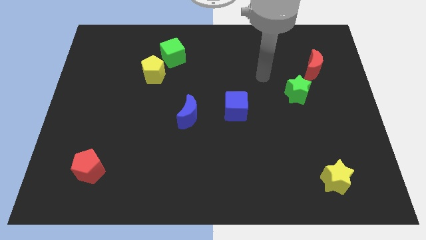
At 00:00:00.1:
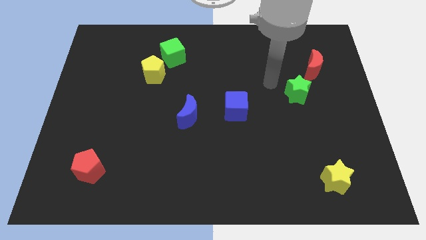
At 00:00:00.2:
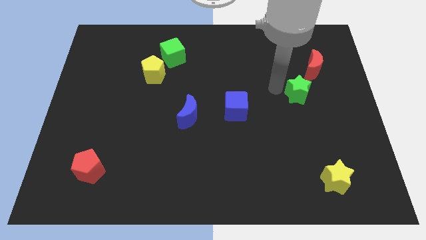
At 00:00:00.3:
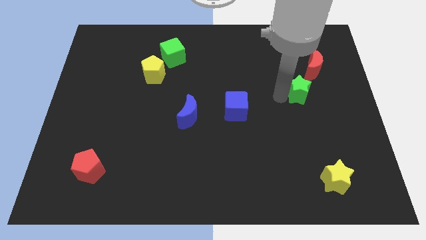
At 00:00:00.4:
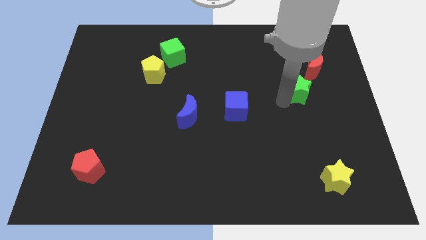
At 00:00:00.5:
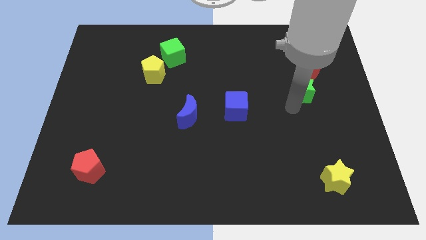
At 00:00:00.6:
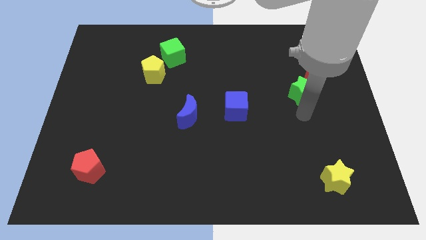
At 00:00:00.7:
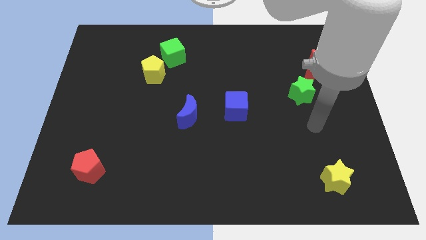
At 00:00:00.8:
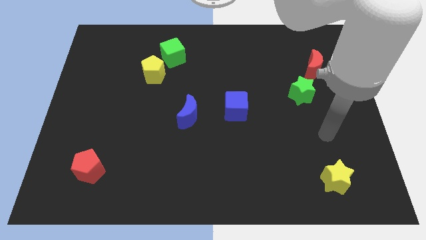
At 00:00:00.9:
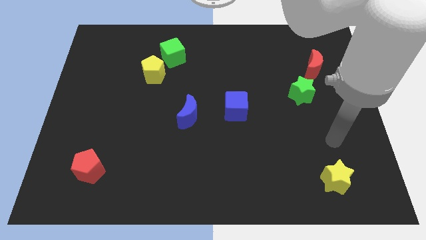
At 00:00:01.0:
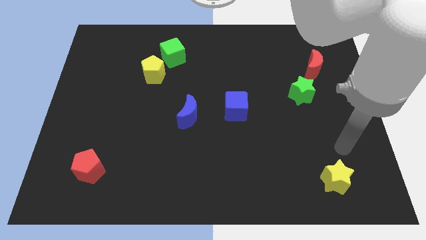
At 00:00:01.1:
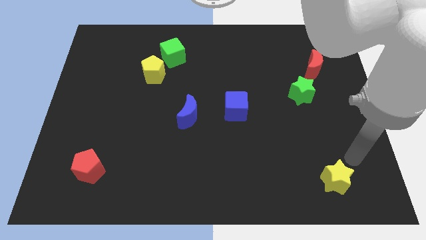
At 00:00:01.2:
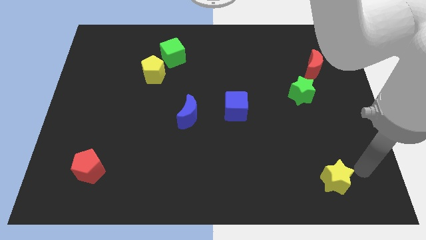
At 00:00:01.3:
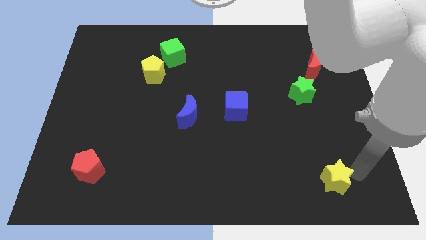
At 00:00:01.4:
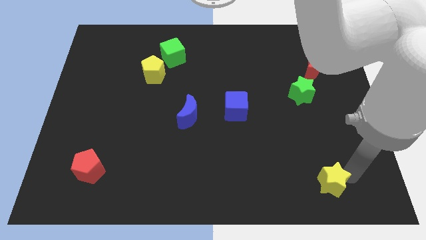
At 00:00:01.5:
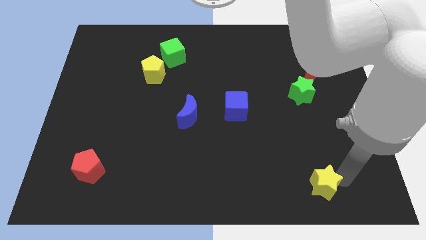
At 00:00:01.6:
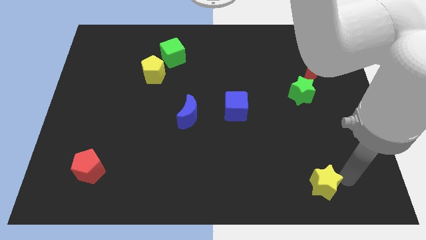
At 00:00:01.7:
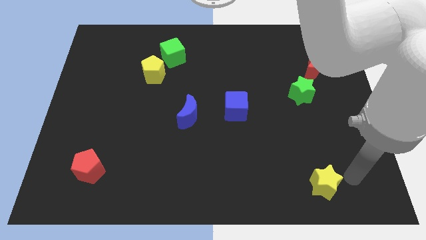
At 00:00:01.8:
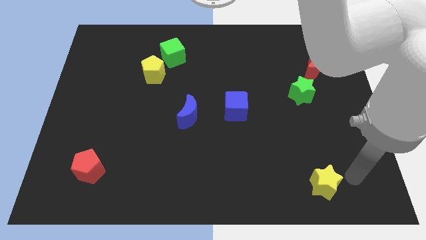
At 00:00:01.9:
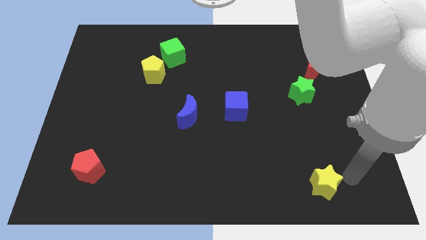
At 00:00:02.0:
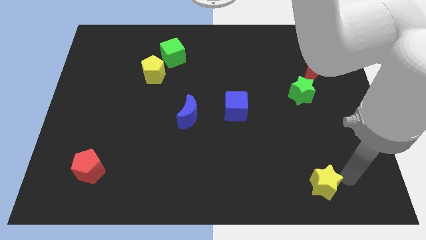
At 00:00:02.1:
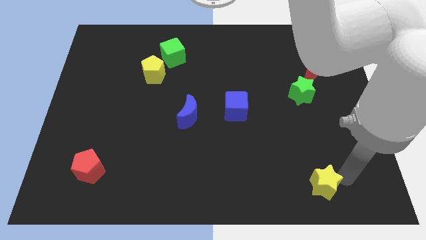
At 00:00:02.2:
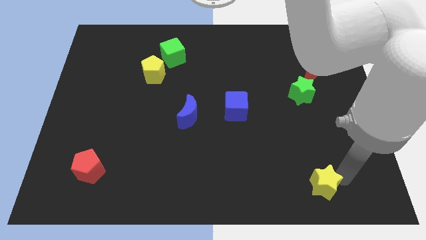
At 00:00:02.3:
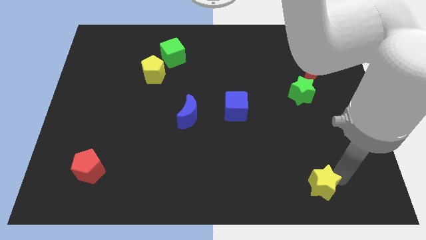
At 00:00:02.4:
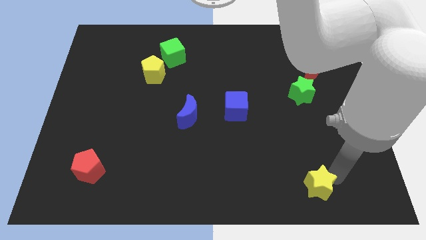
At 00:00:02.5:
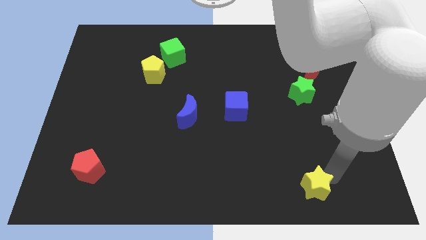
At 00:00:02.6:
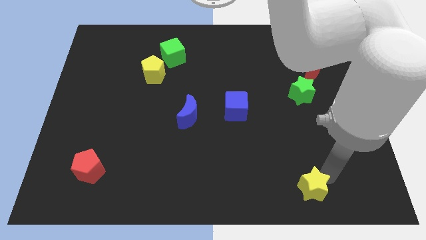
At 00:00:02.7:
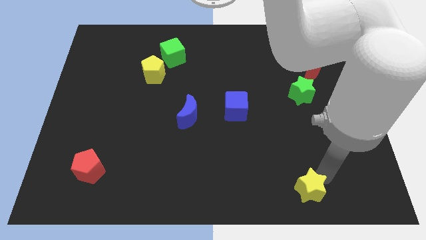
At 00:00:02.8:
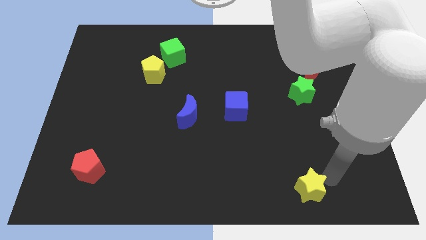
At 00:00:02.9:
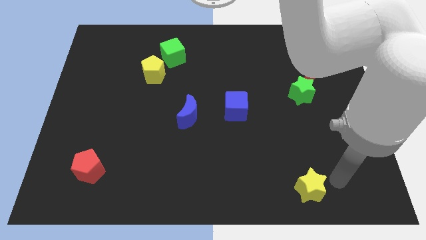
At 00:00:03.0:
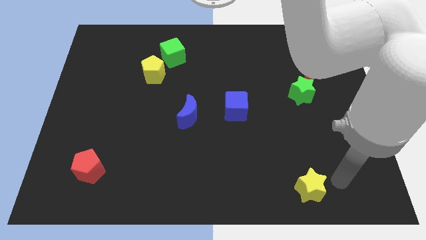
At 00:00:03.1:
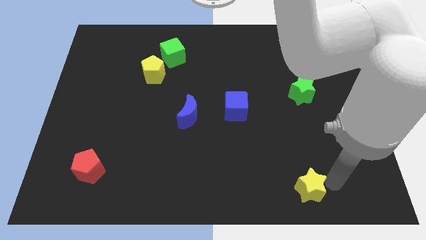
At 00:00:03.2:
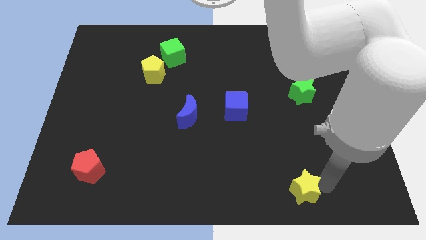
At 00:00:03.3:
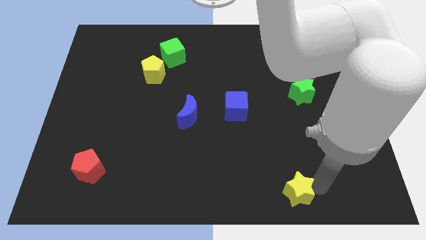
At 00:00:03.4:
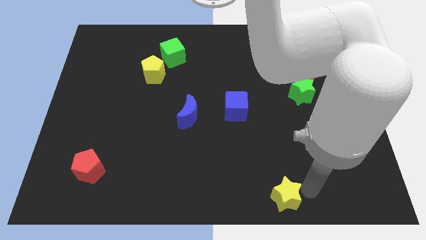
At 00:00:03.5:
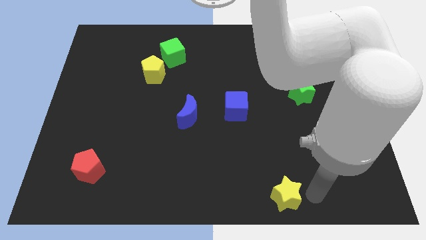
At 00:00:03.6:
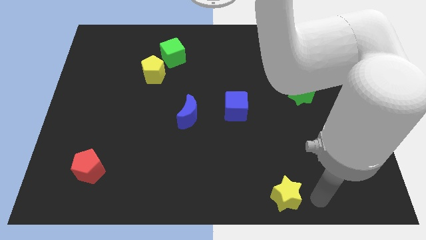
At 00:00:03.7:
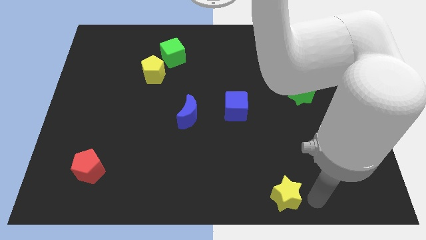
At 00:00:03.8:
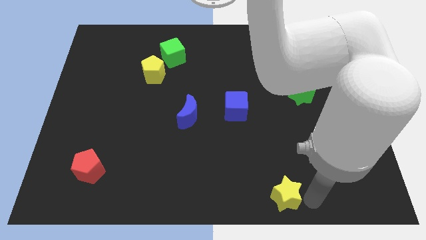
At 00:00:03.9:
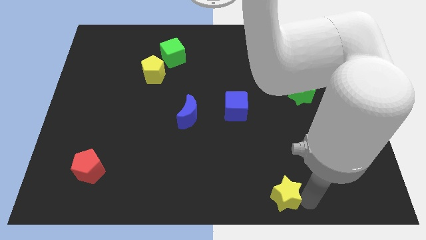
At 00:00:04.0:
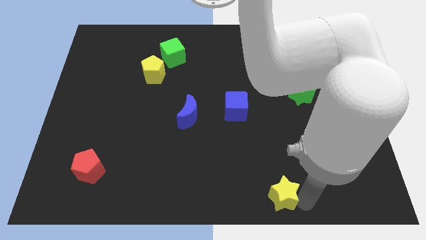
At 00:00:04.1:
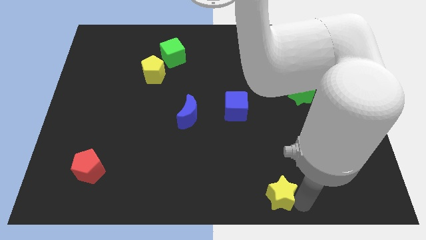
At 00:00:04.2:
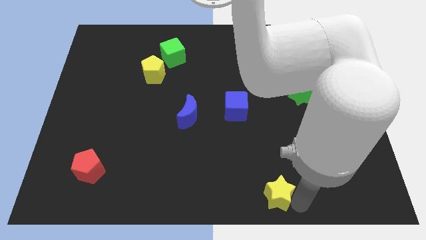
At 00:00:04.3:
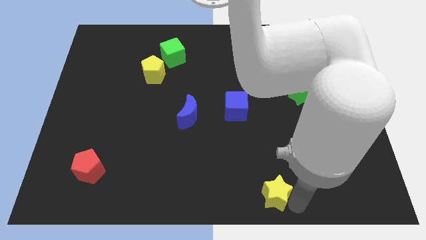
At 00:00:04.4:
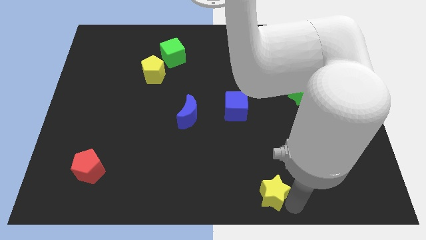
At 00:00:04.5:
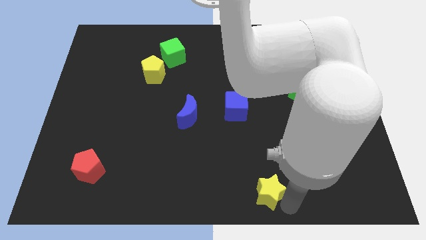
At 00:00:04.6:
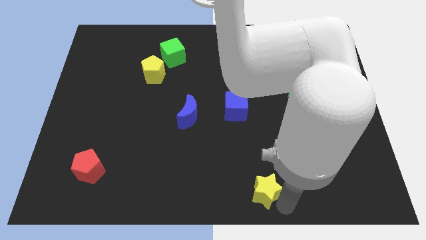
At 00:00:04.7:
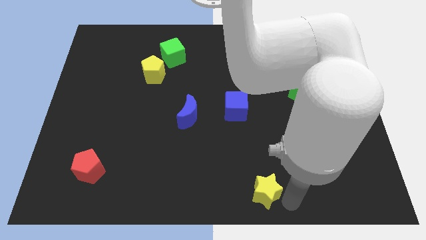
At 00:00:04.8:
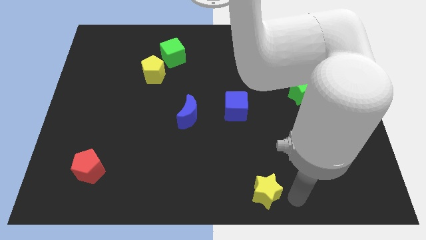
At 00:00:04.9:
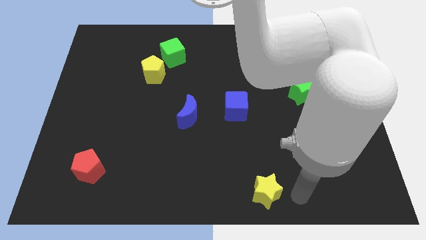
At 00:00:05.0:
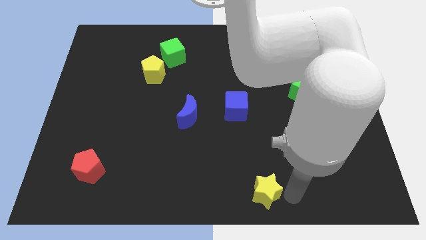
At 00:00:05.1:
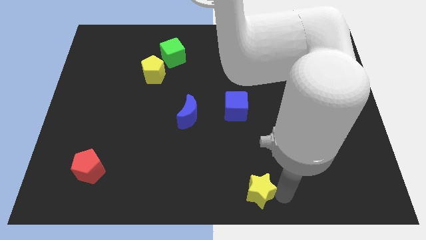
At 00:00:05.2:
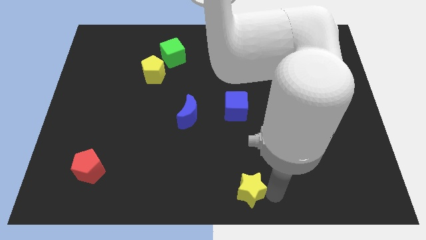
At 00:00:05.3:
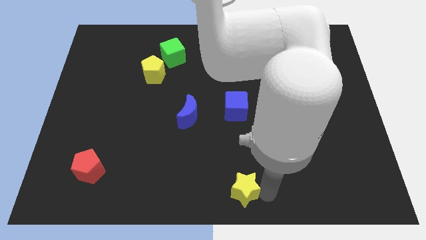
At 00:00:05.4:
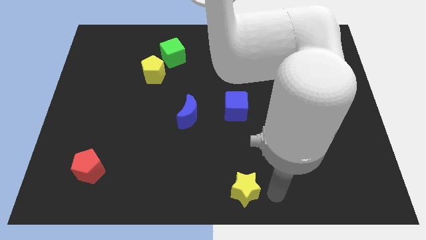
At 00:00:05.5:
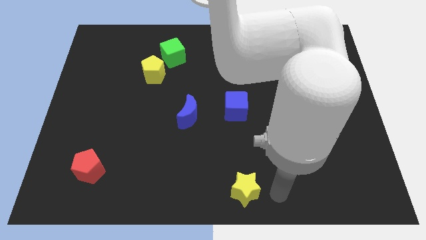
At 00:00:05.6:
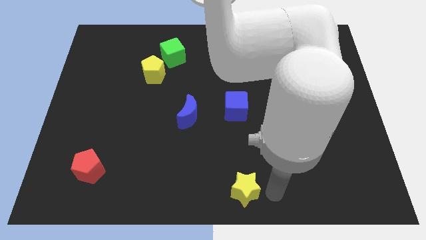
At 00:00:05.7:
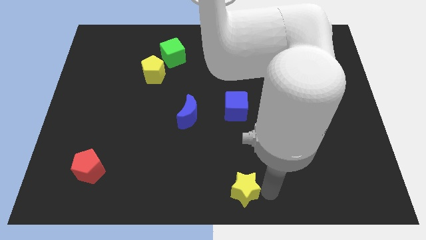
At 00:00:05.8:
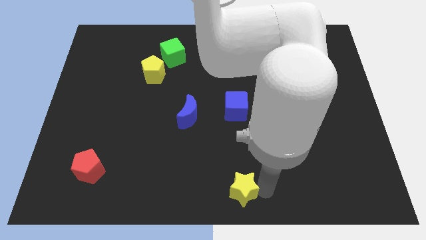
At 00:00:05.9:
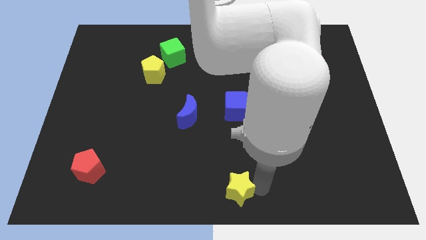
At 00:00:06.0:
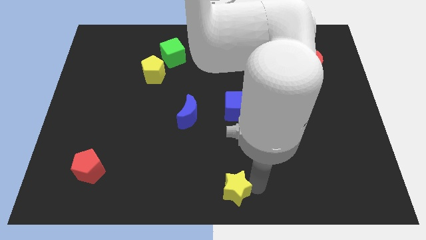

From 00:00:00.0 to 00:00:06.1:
slide the yellow star to the left

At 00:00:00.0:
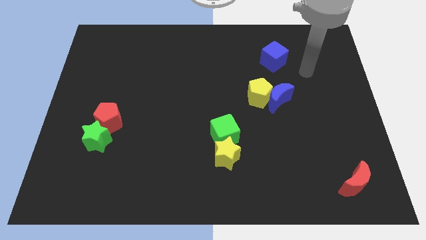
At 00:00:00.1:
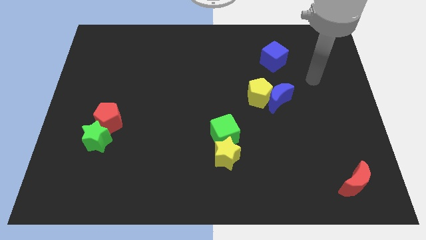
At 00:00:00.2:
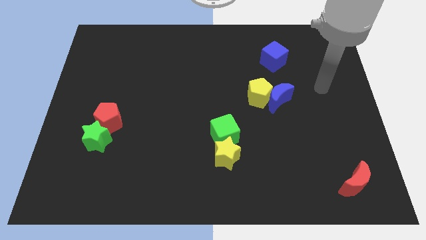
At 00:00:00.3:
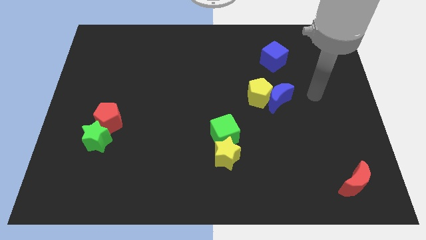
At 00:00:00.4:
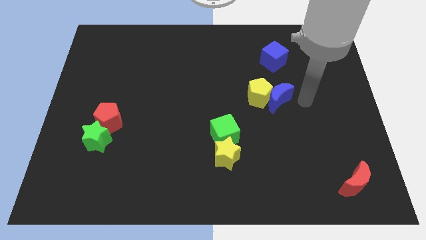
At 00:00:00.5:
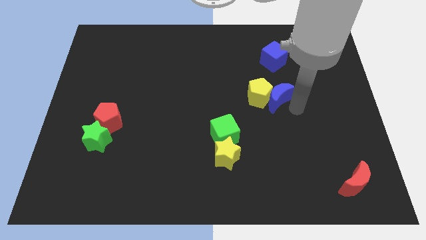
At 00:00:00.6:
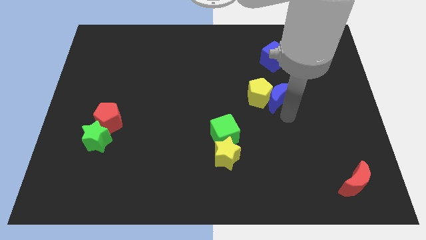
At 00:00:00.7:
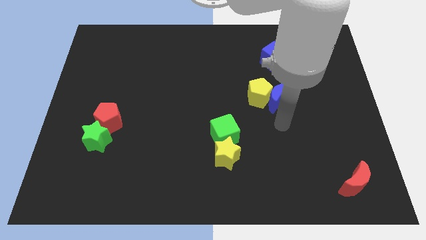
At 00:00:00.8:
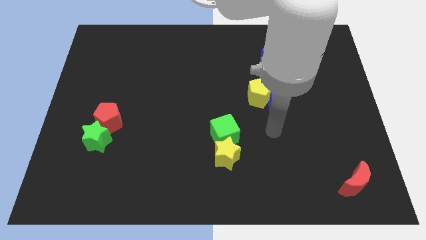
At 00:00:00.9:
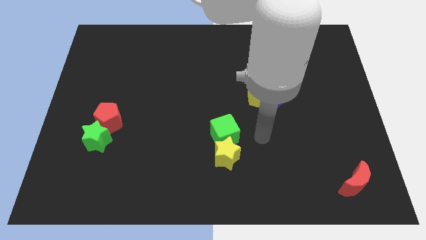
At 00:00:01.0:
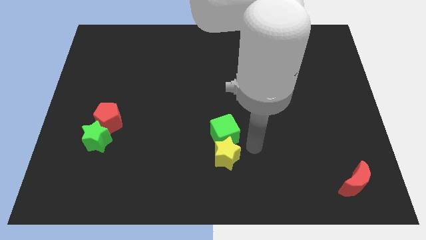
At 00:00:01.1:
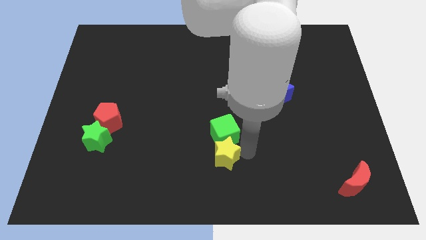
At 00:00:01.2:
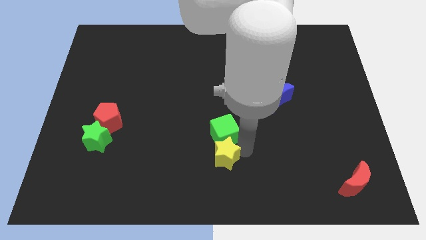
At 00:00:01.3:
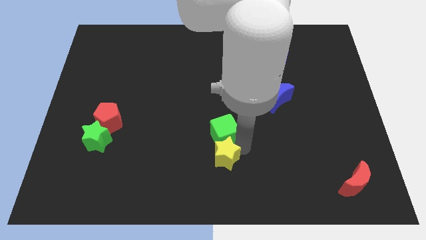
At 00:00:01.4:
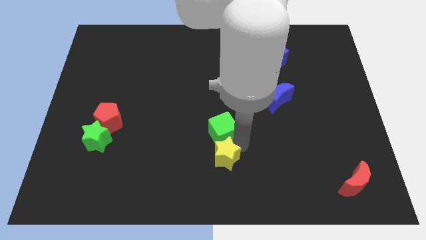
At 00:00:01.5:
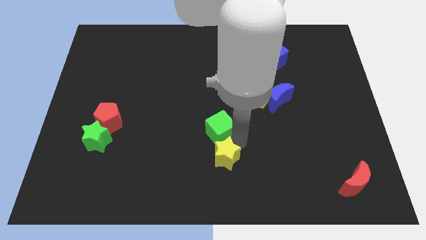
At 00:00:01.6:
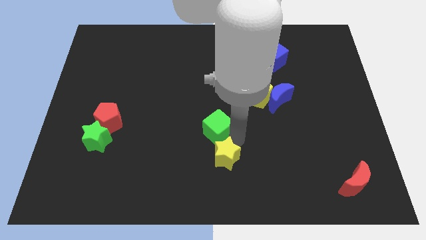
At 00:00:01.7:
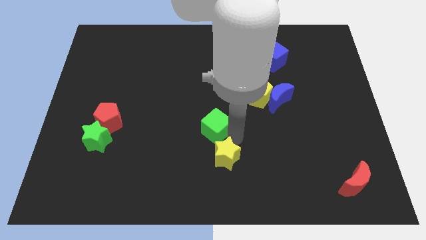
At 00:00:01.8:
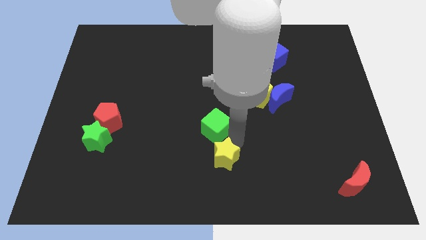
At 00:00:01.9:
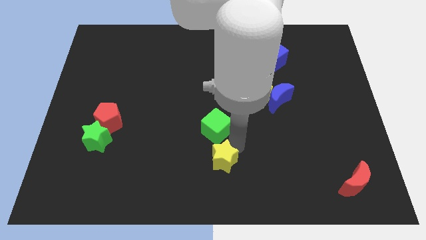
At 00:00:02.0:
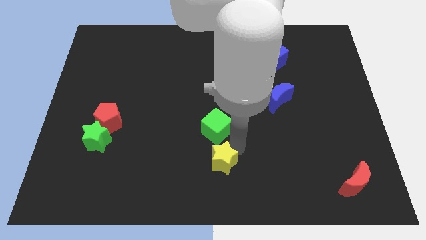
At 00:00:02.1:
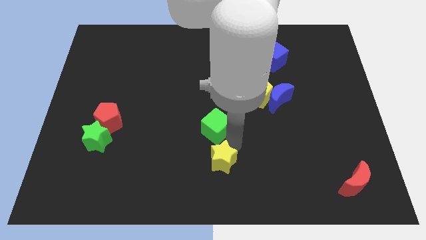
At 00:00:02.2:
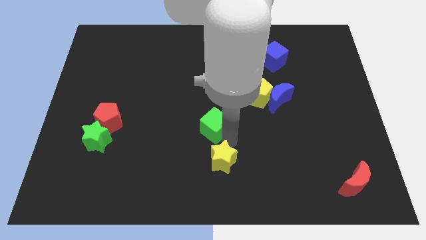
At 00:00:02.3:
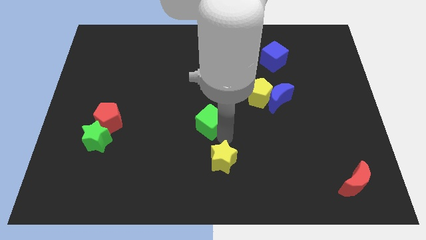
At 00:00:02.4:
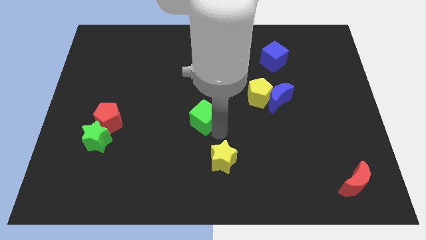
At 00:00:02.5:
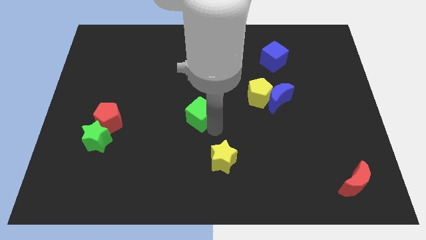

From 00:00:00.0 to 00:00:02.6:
slightly slide the green cube up and left
